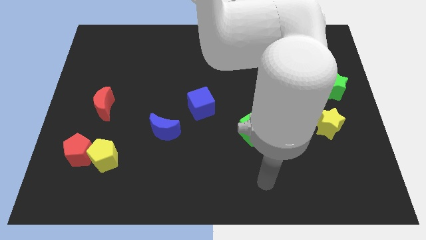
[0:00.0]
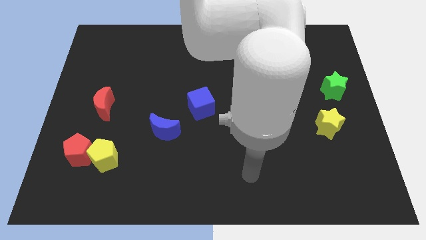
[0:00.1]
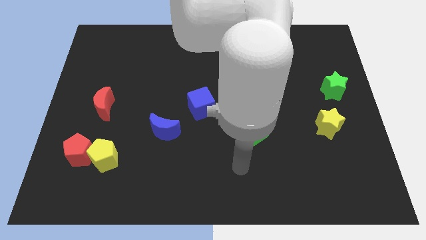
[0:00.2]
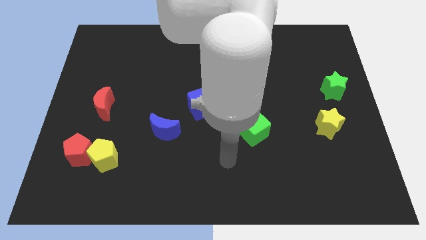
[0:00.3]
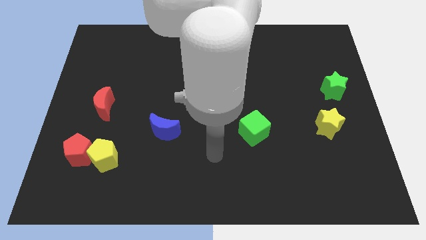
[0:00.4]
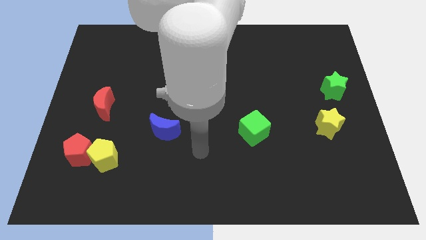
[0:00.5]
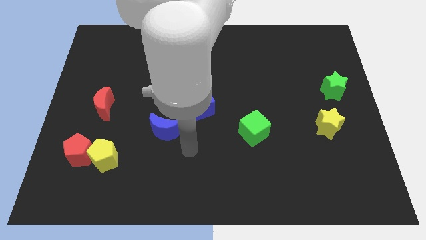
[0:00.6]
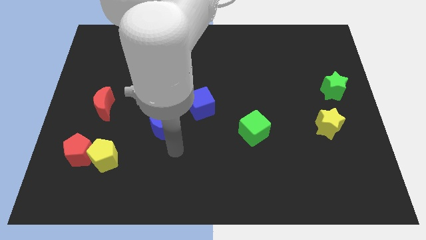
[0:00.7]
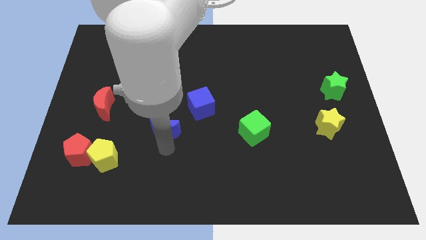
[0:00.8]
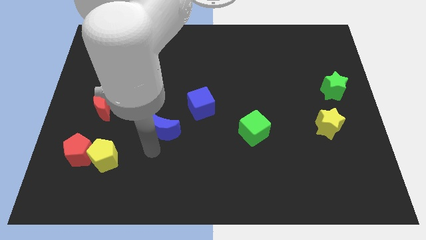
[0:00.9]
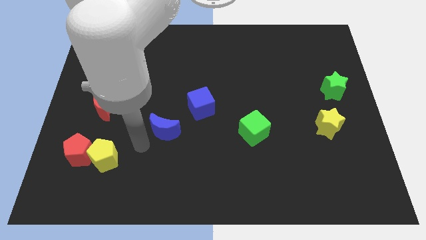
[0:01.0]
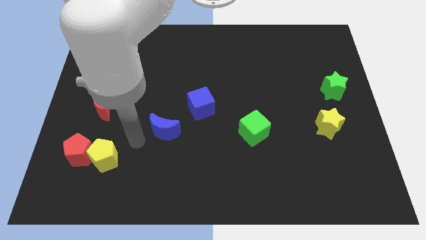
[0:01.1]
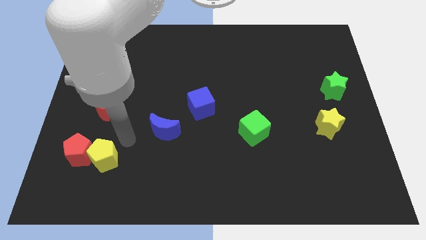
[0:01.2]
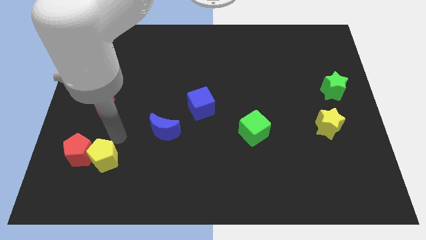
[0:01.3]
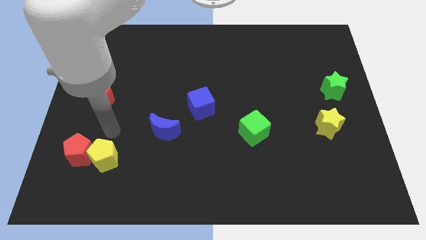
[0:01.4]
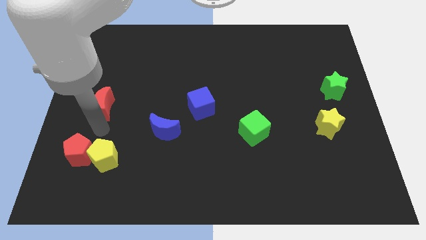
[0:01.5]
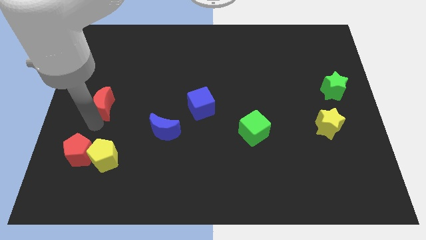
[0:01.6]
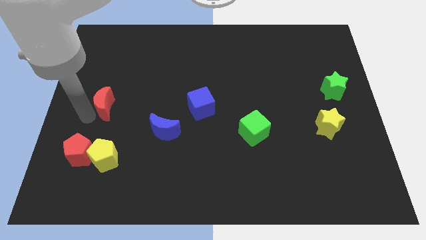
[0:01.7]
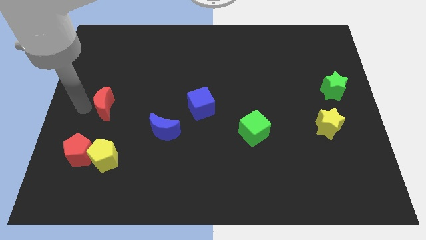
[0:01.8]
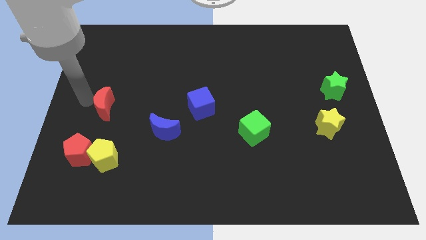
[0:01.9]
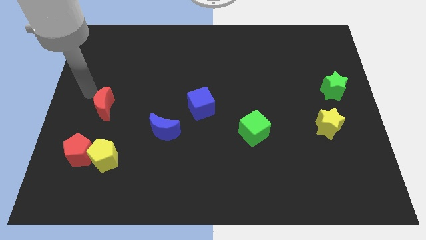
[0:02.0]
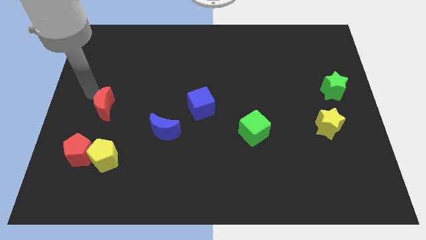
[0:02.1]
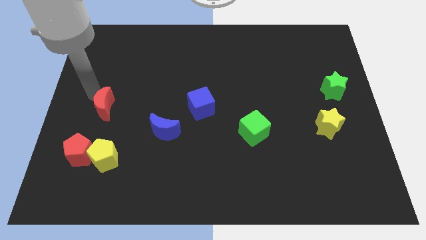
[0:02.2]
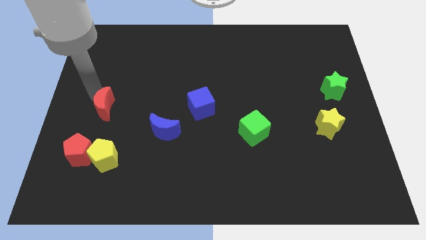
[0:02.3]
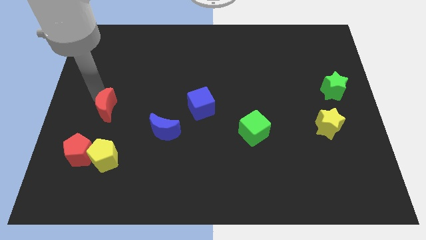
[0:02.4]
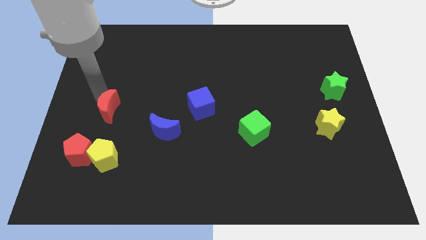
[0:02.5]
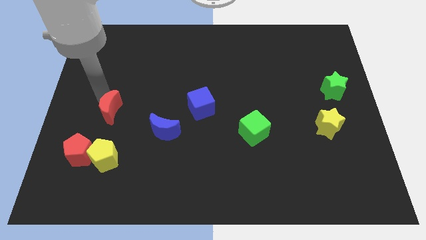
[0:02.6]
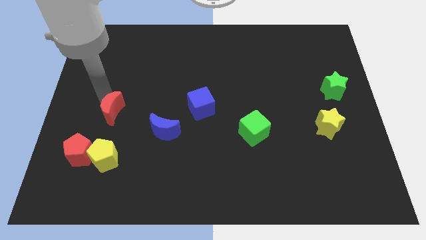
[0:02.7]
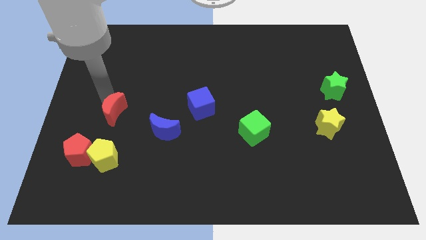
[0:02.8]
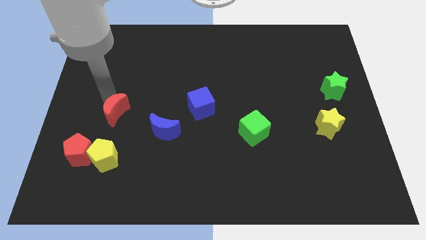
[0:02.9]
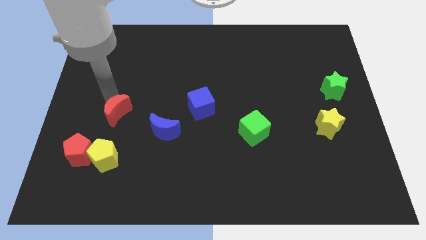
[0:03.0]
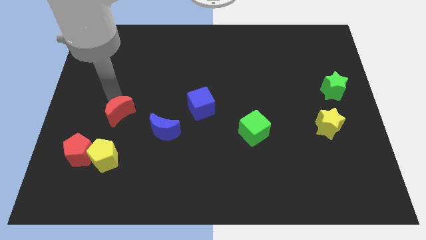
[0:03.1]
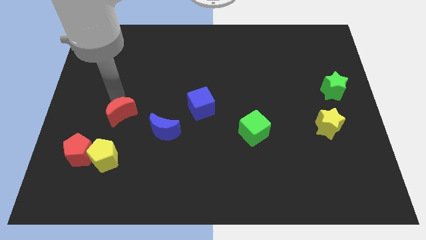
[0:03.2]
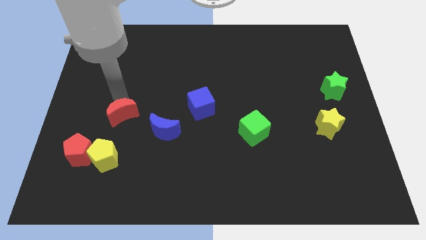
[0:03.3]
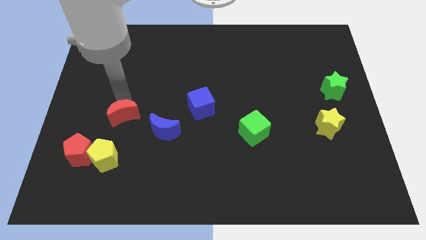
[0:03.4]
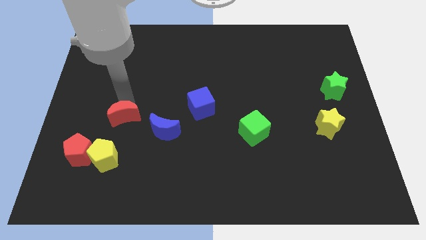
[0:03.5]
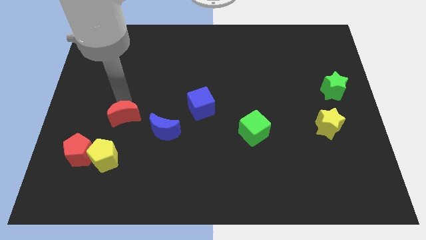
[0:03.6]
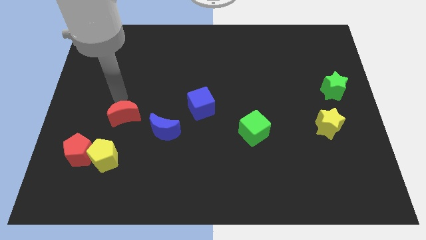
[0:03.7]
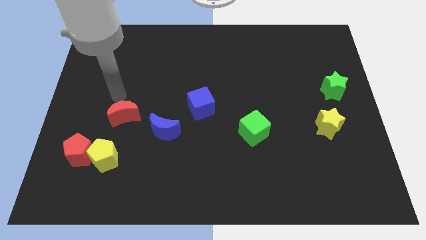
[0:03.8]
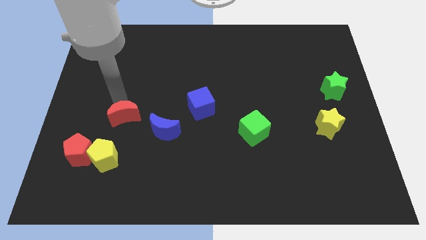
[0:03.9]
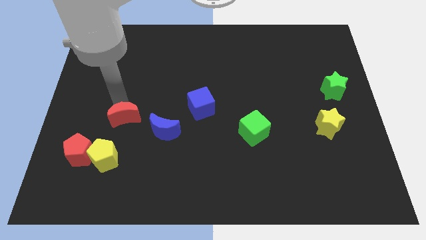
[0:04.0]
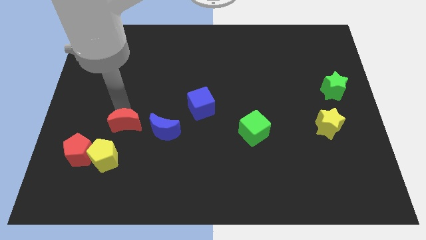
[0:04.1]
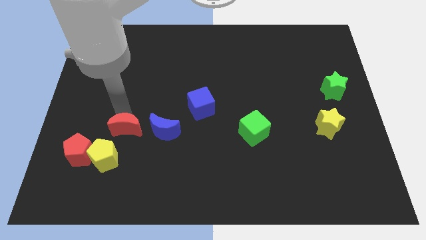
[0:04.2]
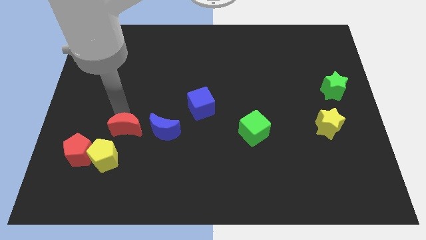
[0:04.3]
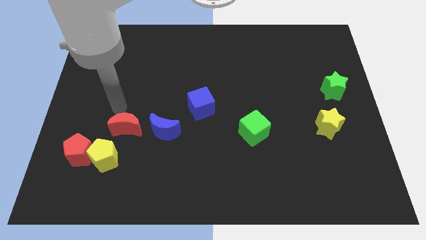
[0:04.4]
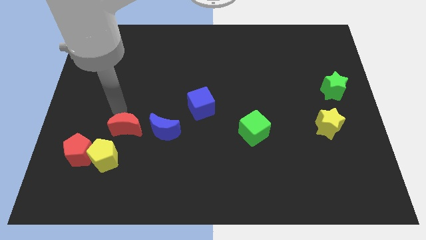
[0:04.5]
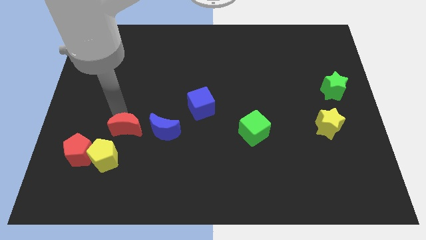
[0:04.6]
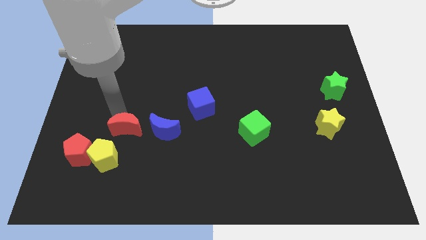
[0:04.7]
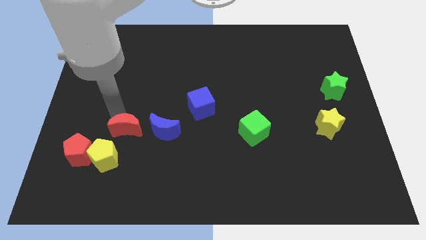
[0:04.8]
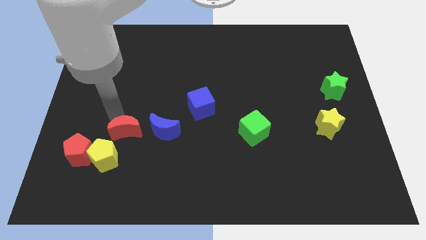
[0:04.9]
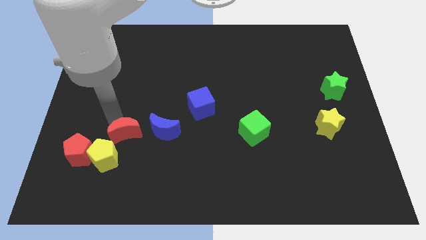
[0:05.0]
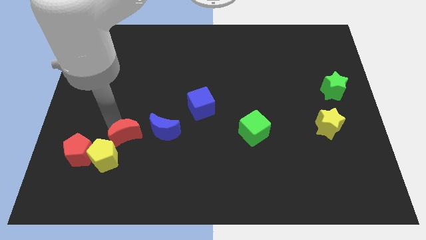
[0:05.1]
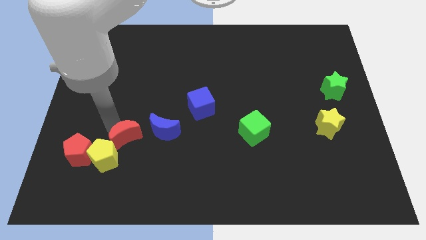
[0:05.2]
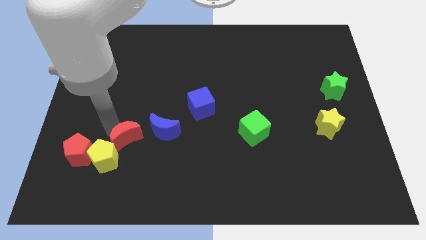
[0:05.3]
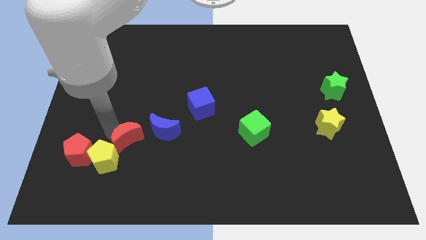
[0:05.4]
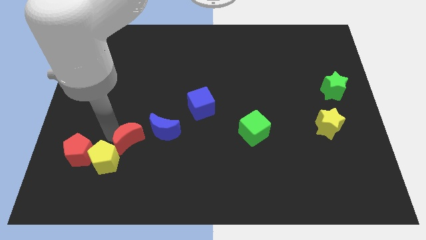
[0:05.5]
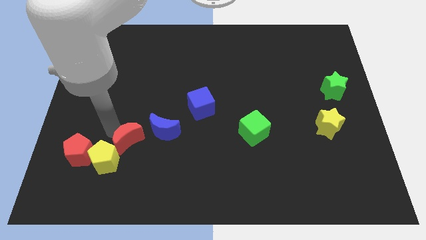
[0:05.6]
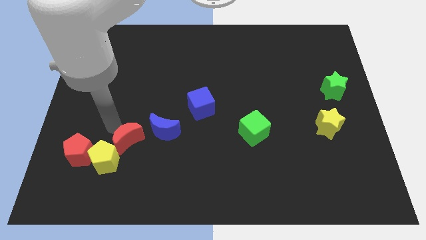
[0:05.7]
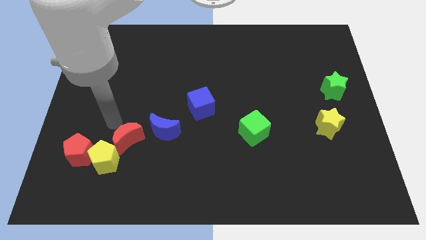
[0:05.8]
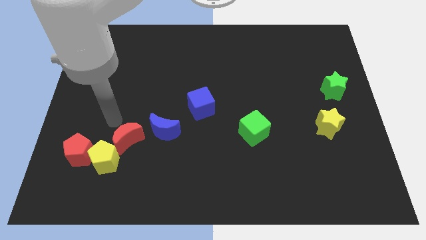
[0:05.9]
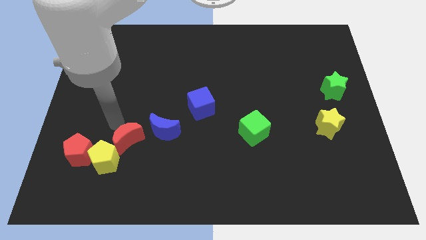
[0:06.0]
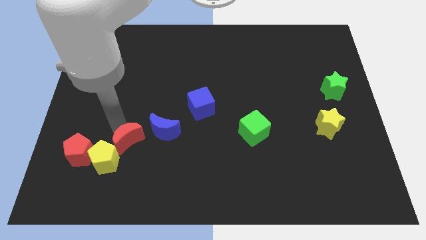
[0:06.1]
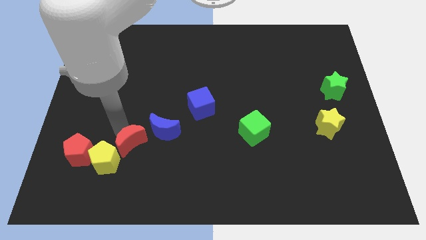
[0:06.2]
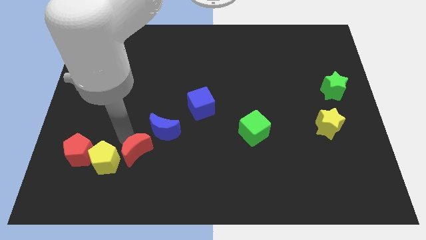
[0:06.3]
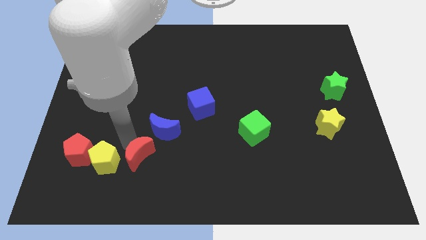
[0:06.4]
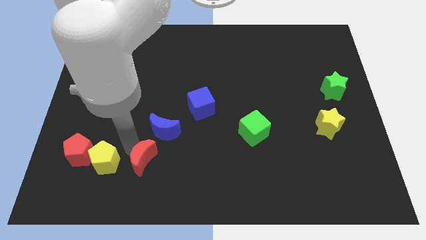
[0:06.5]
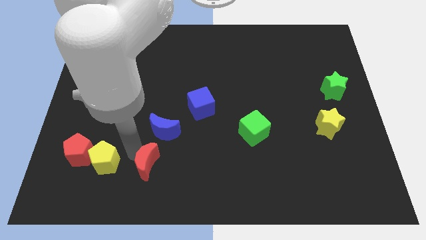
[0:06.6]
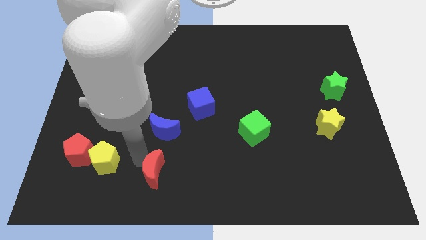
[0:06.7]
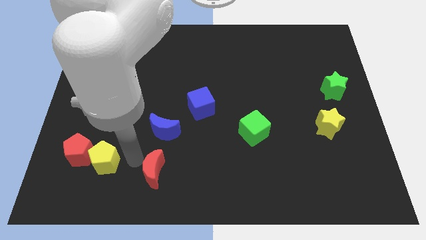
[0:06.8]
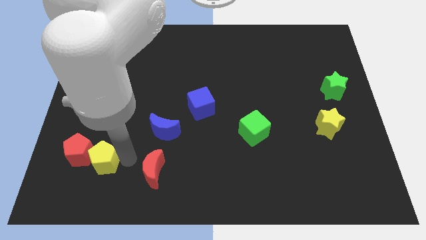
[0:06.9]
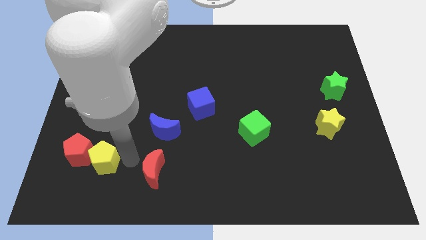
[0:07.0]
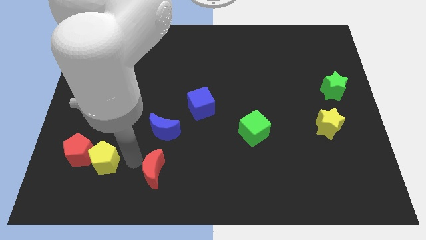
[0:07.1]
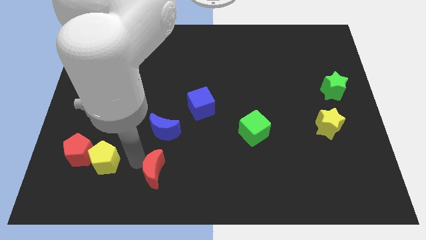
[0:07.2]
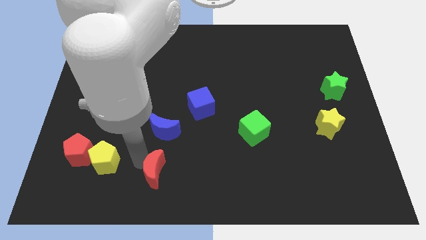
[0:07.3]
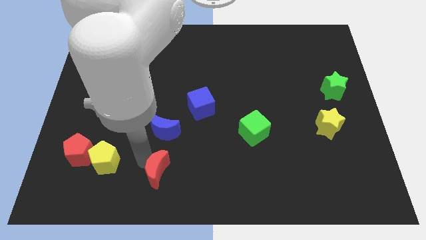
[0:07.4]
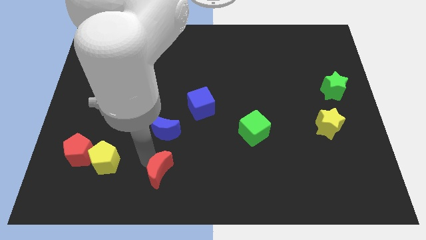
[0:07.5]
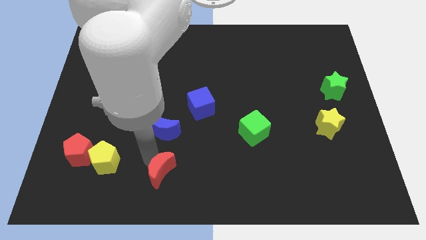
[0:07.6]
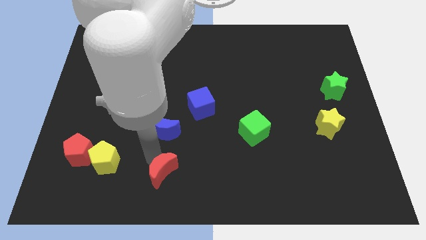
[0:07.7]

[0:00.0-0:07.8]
push the red moon to the bottom
